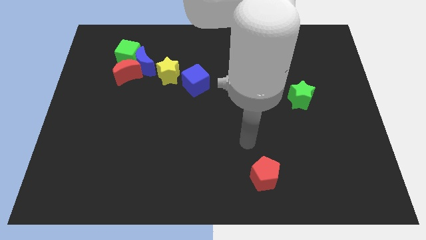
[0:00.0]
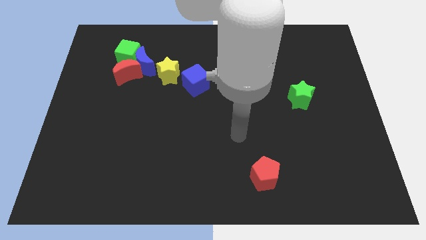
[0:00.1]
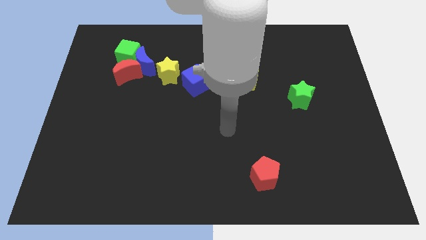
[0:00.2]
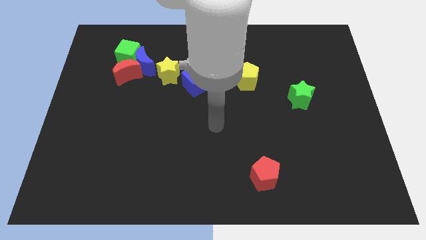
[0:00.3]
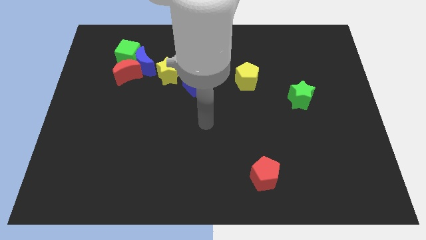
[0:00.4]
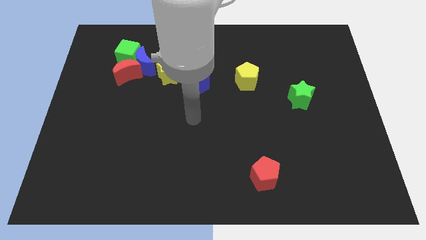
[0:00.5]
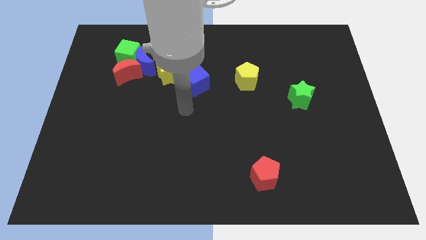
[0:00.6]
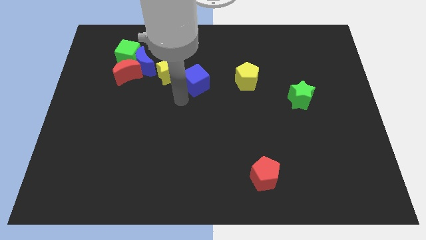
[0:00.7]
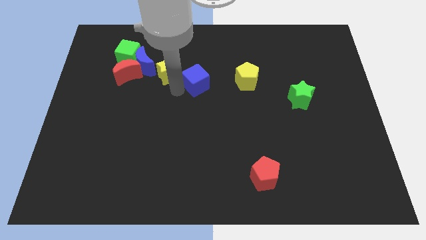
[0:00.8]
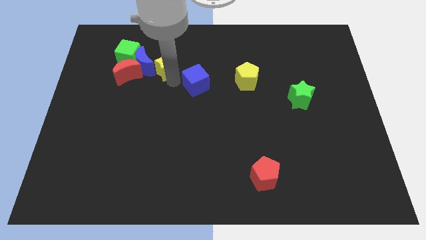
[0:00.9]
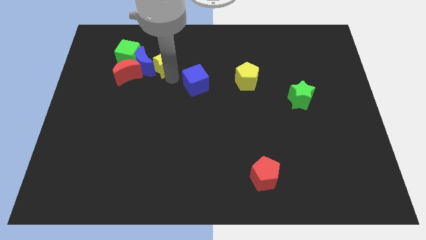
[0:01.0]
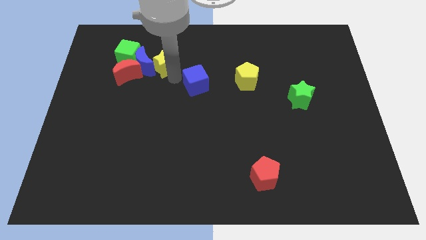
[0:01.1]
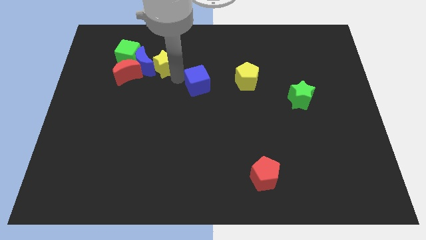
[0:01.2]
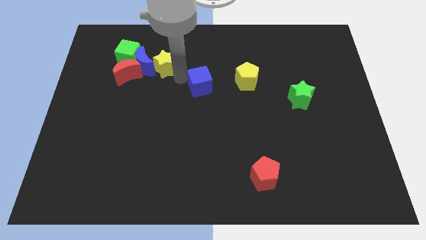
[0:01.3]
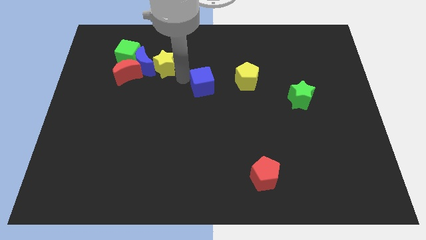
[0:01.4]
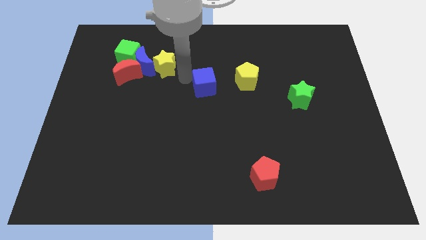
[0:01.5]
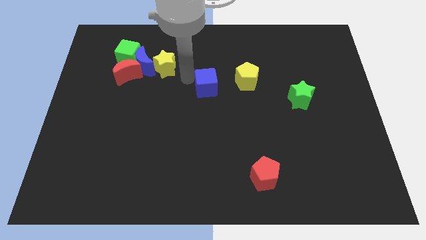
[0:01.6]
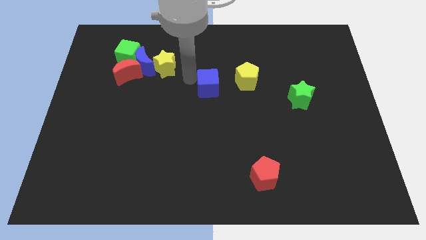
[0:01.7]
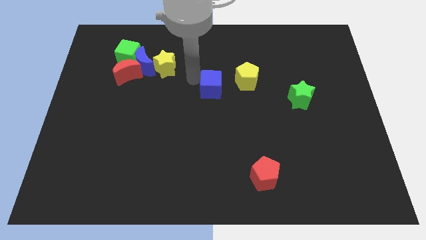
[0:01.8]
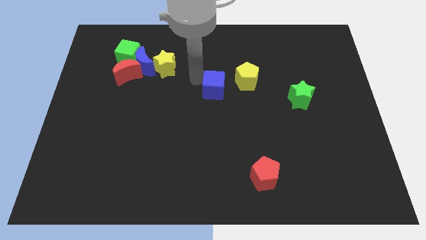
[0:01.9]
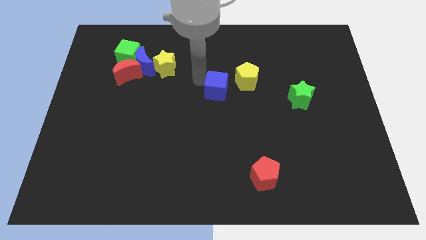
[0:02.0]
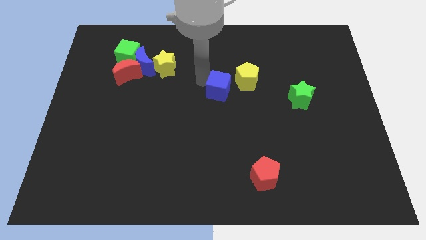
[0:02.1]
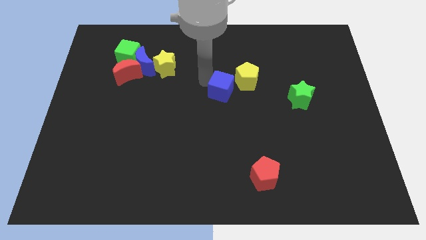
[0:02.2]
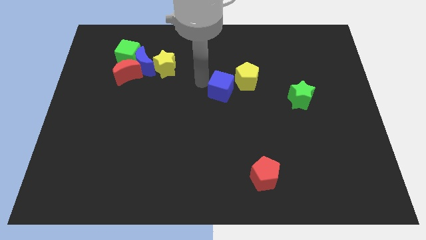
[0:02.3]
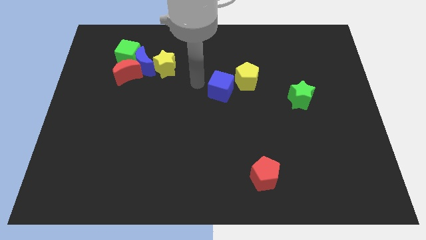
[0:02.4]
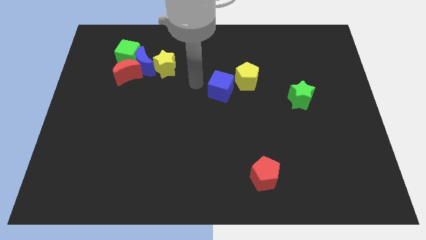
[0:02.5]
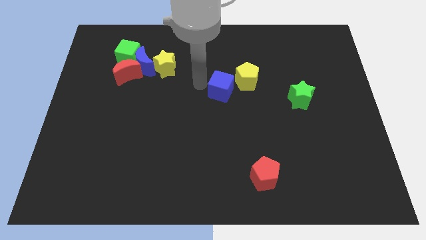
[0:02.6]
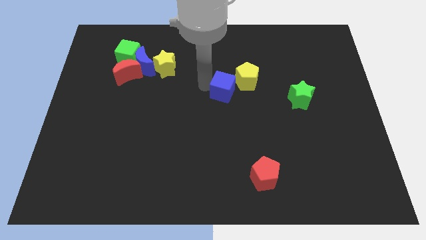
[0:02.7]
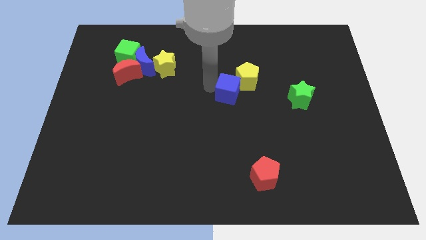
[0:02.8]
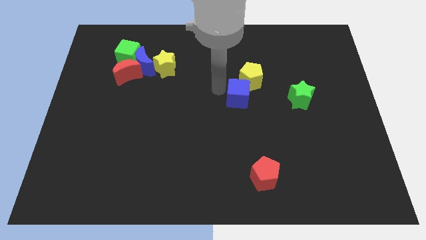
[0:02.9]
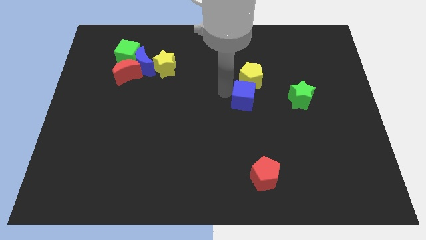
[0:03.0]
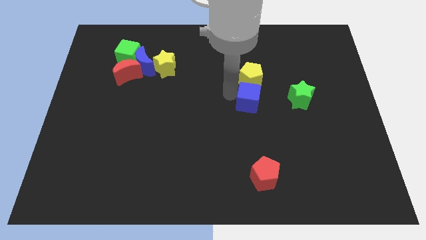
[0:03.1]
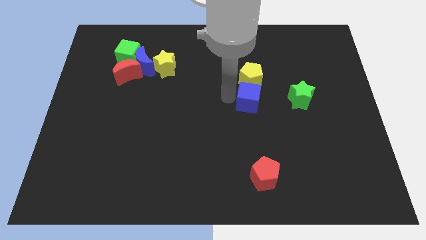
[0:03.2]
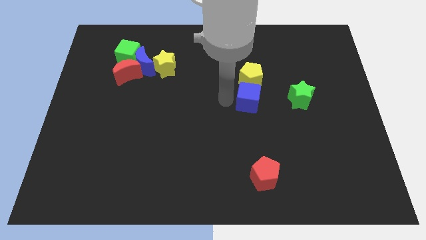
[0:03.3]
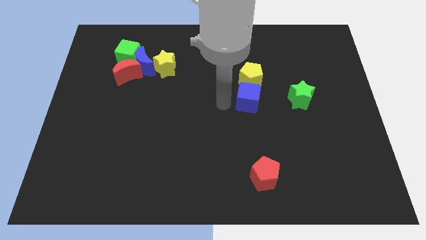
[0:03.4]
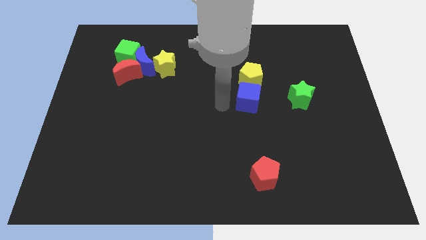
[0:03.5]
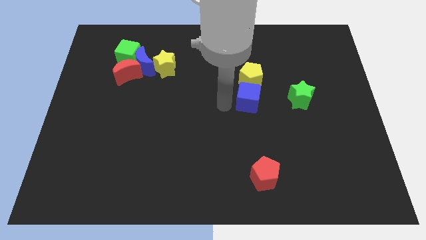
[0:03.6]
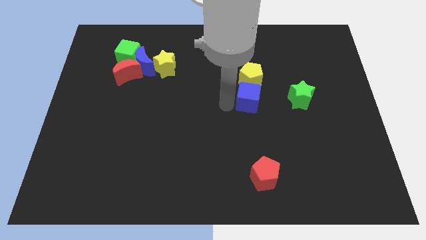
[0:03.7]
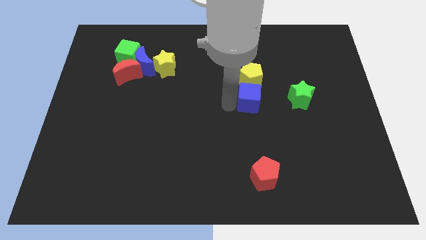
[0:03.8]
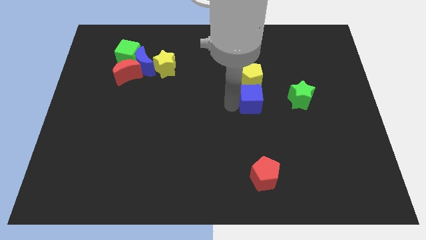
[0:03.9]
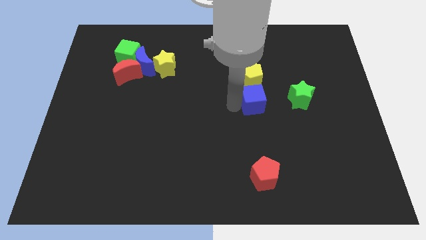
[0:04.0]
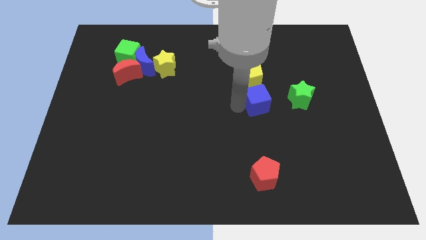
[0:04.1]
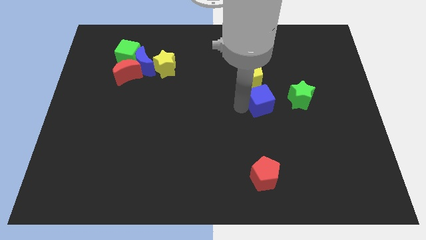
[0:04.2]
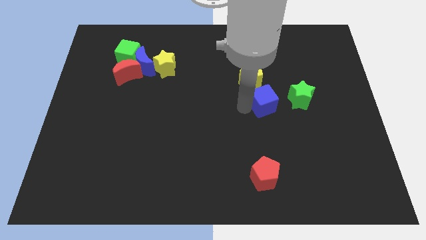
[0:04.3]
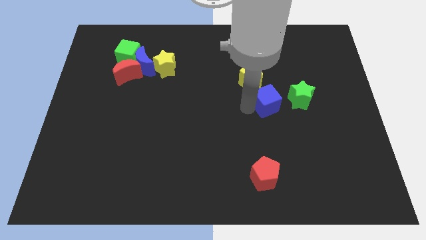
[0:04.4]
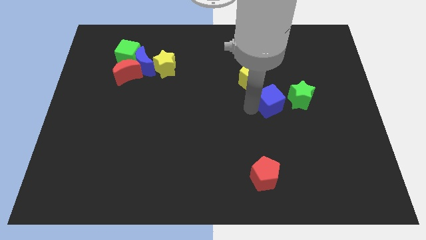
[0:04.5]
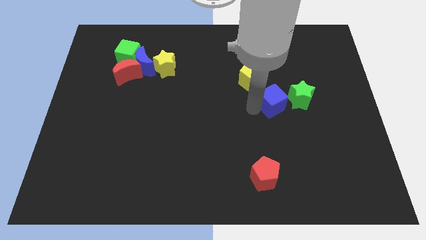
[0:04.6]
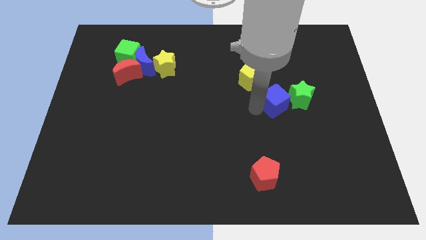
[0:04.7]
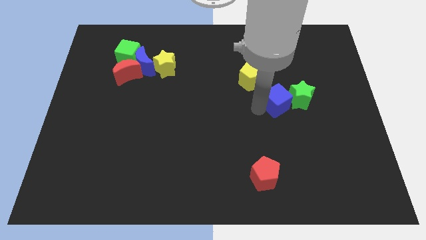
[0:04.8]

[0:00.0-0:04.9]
push the blue cube to the green star

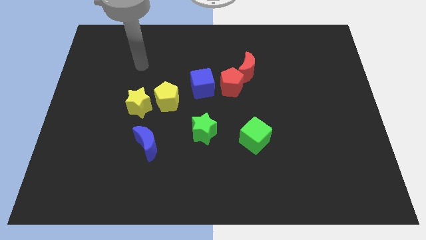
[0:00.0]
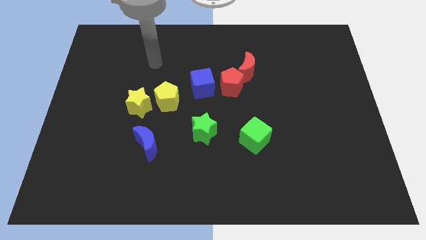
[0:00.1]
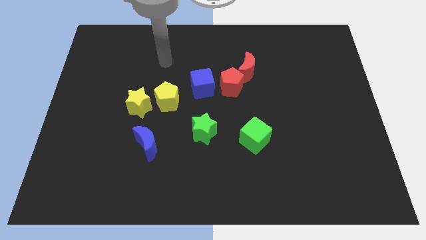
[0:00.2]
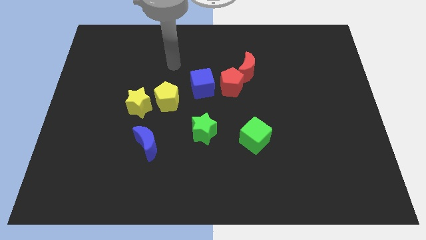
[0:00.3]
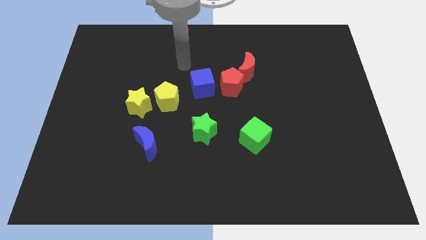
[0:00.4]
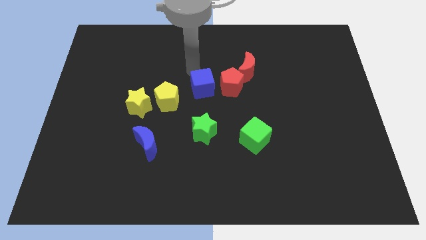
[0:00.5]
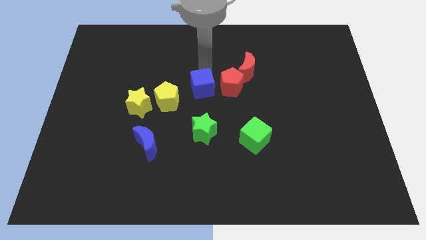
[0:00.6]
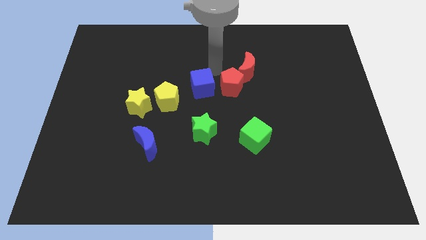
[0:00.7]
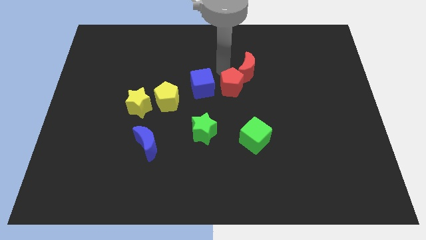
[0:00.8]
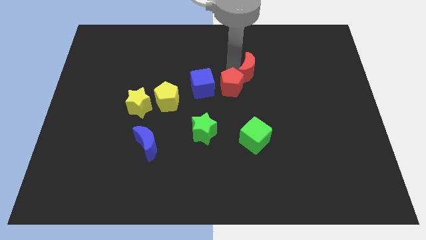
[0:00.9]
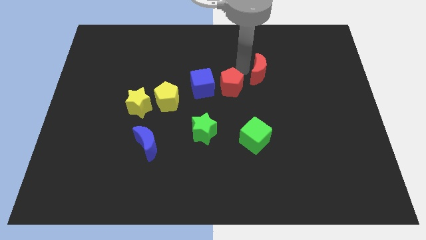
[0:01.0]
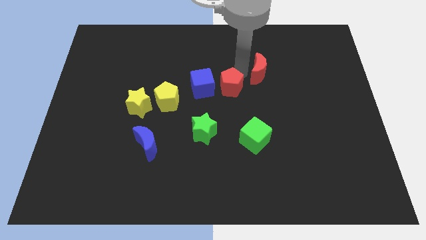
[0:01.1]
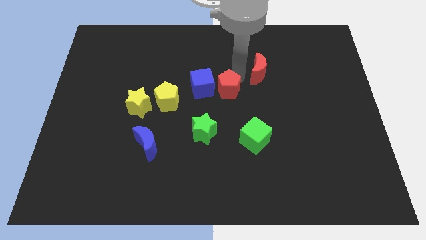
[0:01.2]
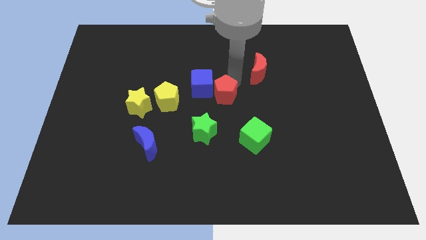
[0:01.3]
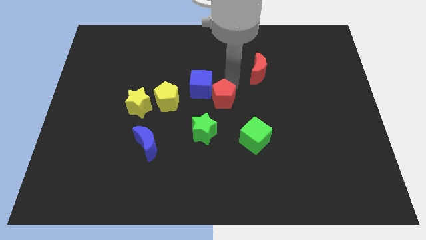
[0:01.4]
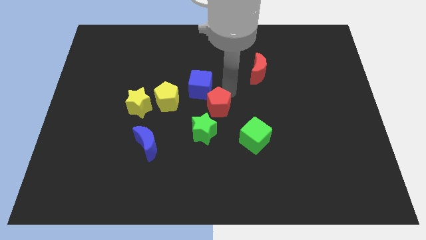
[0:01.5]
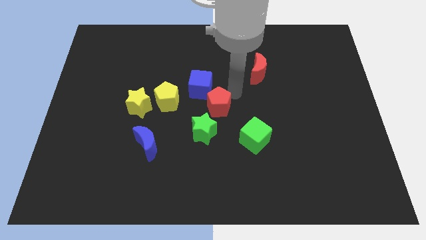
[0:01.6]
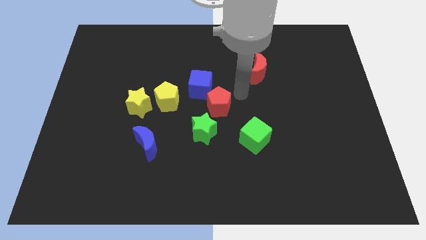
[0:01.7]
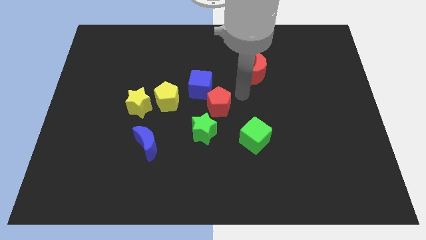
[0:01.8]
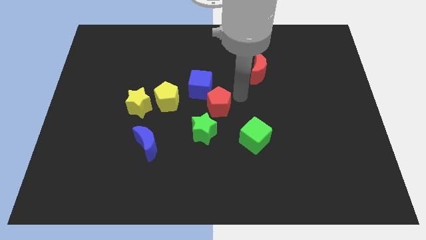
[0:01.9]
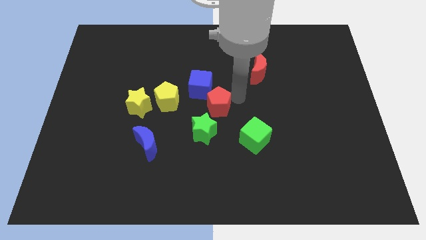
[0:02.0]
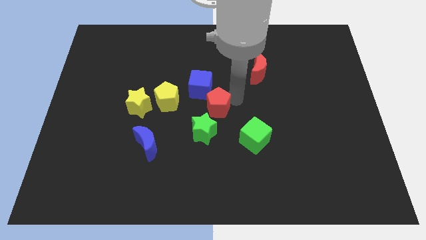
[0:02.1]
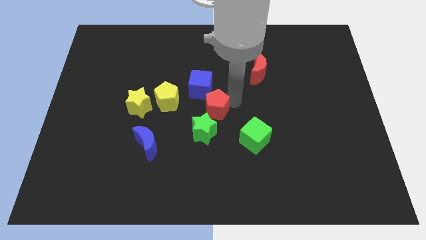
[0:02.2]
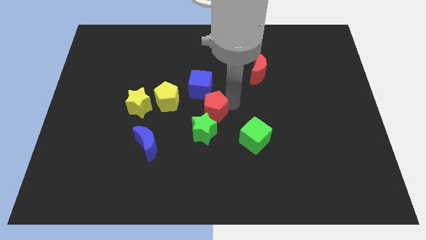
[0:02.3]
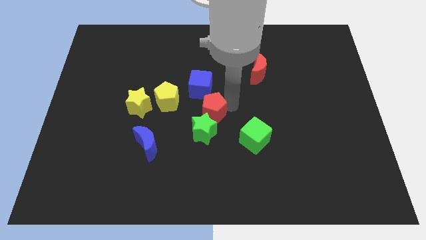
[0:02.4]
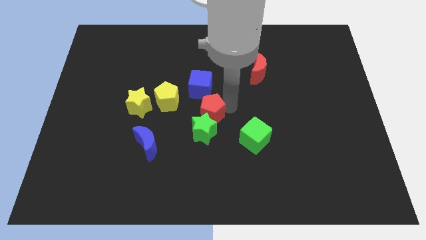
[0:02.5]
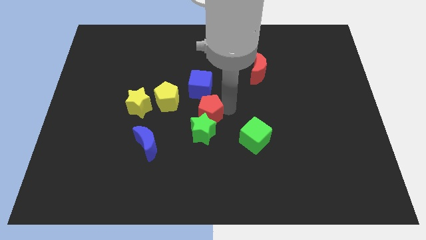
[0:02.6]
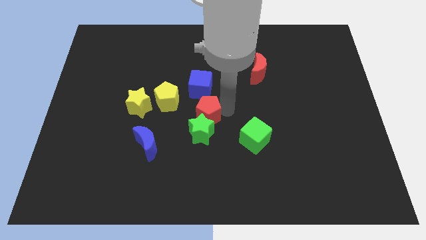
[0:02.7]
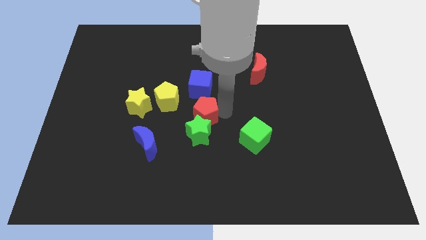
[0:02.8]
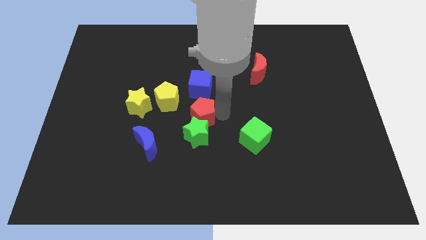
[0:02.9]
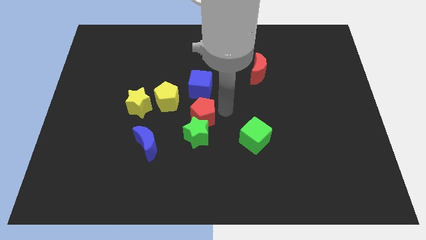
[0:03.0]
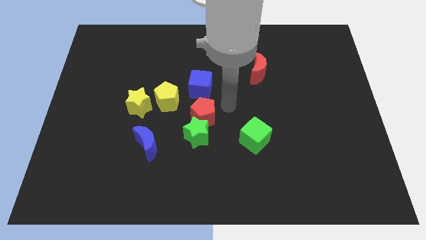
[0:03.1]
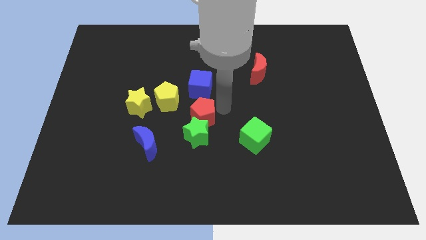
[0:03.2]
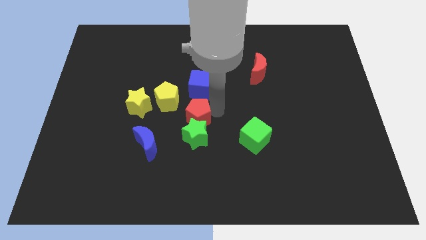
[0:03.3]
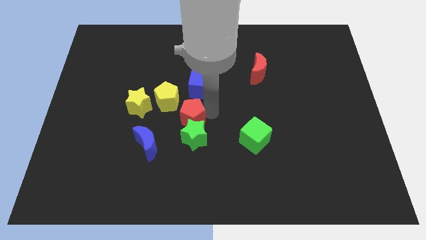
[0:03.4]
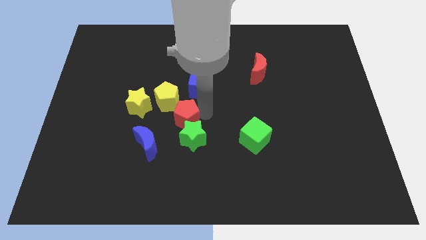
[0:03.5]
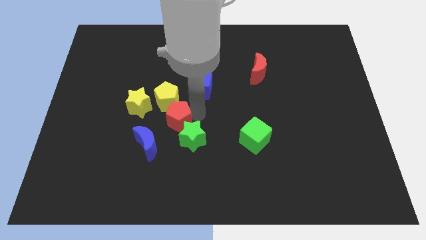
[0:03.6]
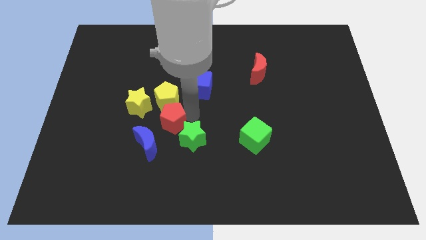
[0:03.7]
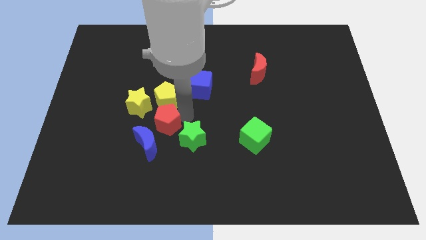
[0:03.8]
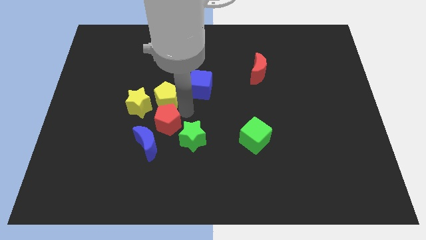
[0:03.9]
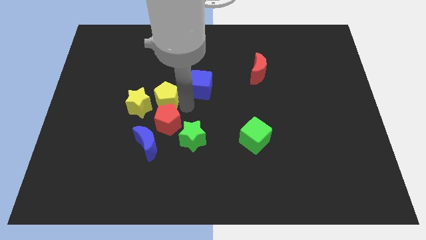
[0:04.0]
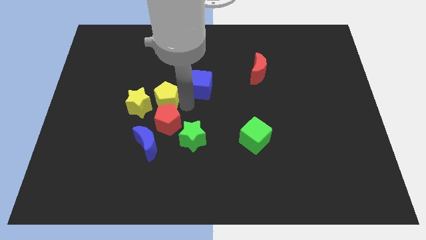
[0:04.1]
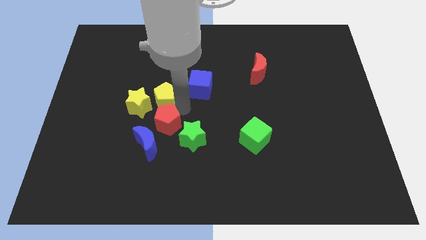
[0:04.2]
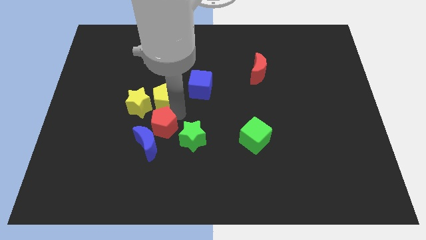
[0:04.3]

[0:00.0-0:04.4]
push the red pentagon next to the blue moon
